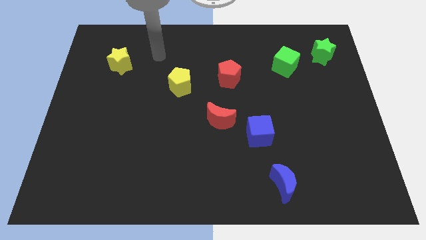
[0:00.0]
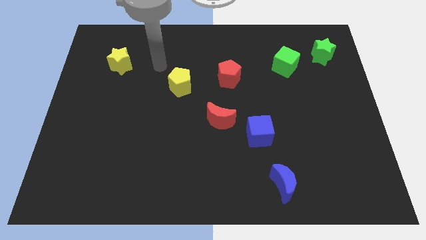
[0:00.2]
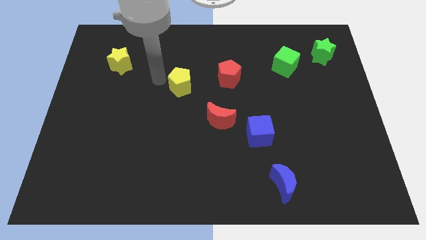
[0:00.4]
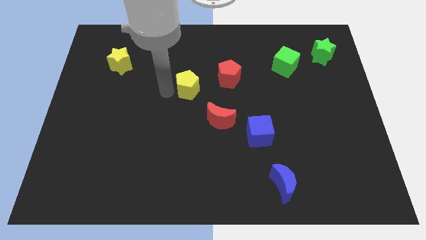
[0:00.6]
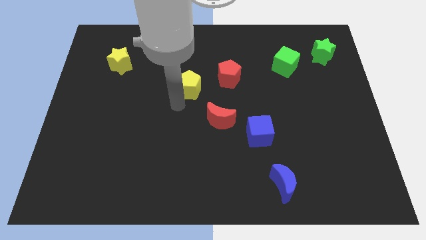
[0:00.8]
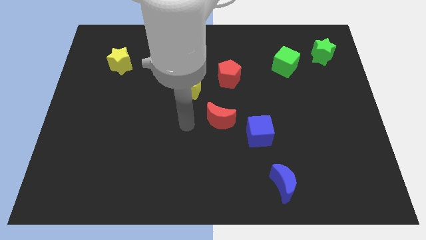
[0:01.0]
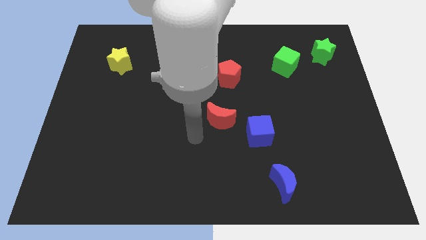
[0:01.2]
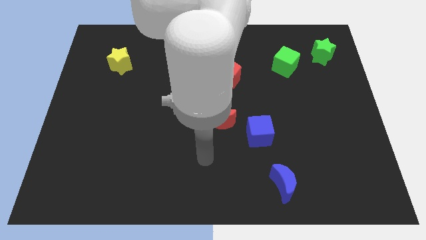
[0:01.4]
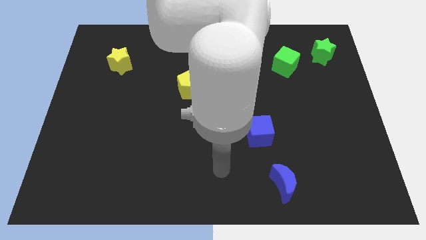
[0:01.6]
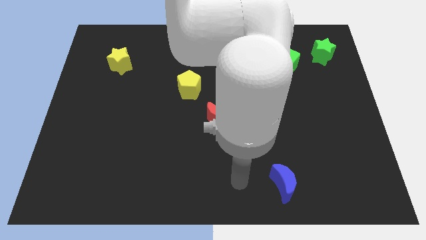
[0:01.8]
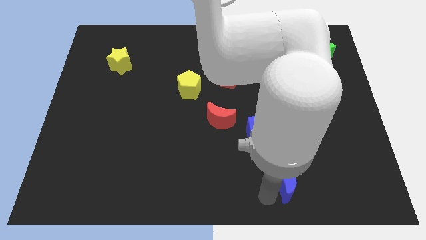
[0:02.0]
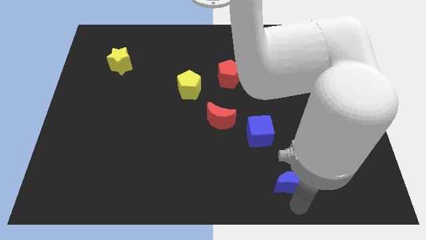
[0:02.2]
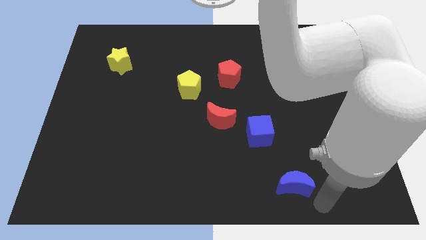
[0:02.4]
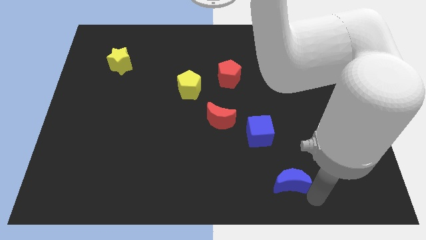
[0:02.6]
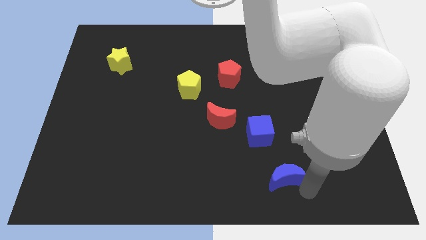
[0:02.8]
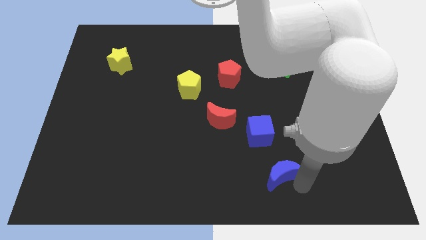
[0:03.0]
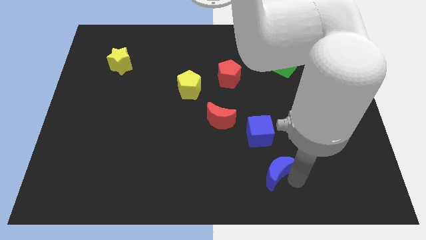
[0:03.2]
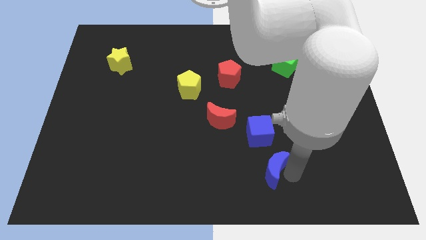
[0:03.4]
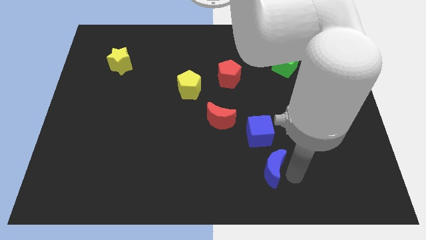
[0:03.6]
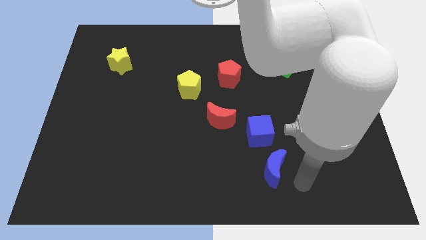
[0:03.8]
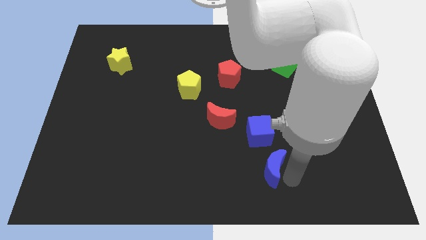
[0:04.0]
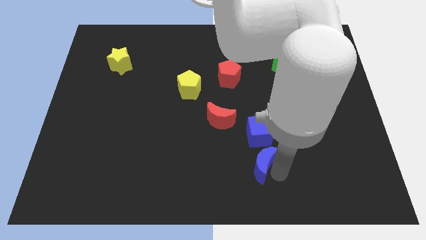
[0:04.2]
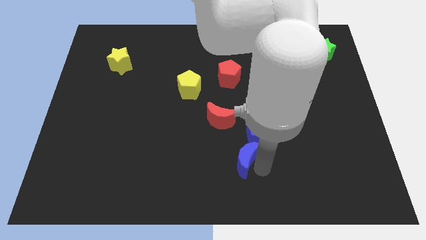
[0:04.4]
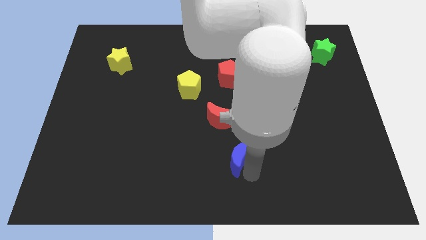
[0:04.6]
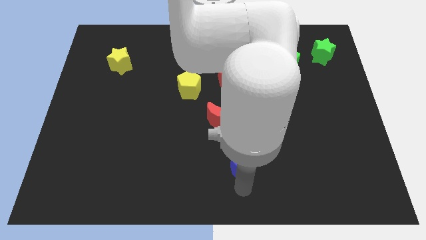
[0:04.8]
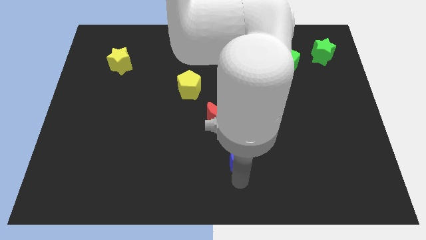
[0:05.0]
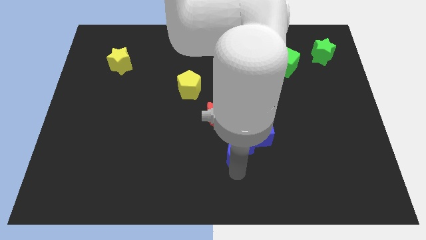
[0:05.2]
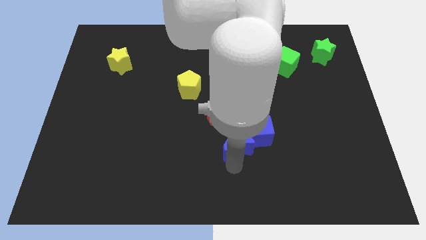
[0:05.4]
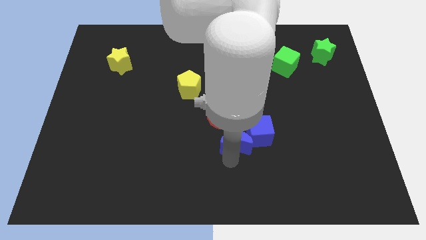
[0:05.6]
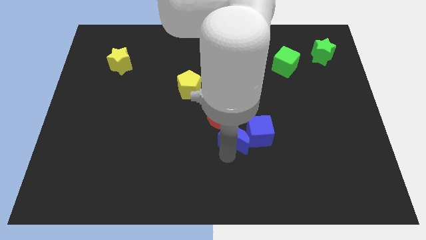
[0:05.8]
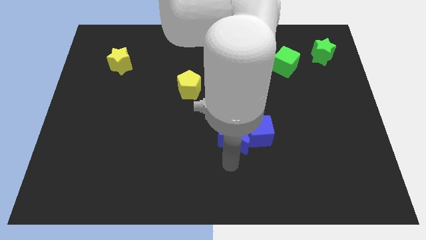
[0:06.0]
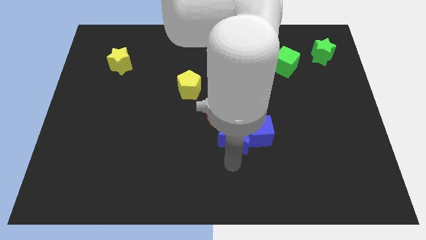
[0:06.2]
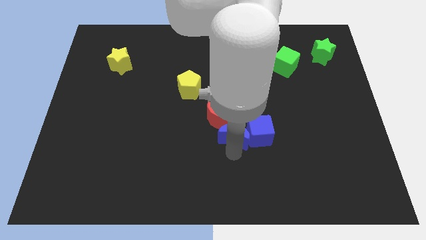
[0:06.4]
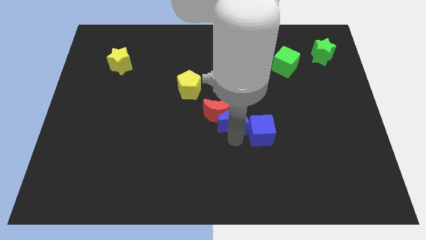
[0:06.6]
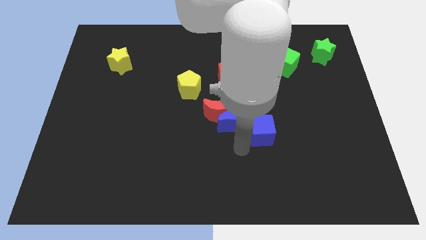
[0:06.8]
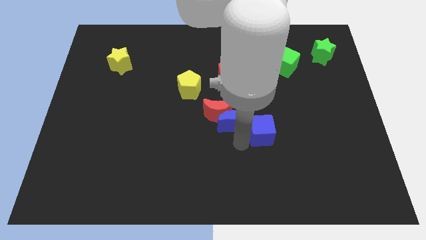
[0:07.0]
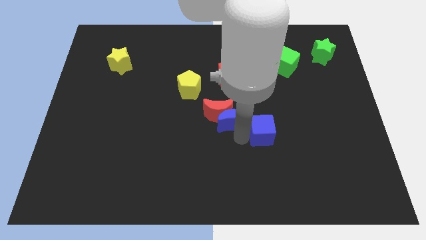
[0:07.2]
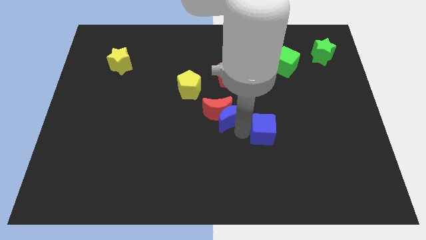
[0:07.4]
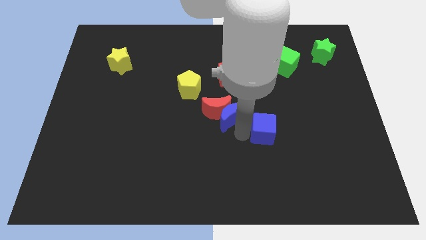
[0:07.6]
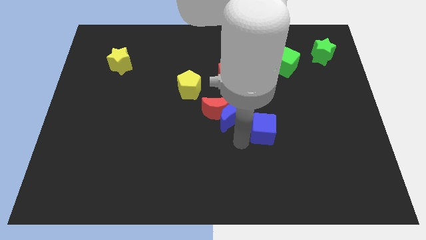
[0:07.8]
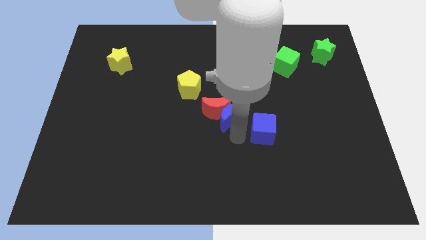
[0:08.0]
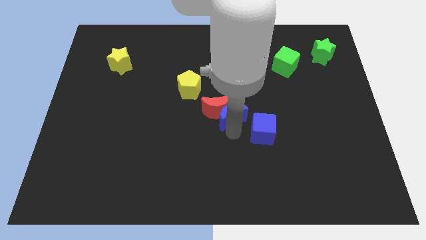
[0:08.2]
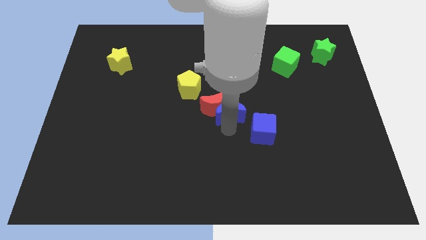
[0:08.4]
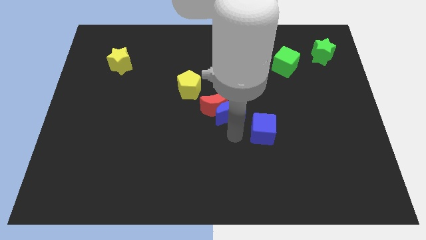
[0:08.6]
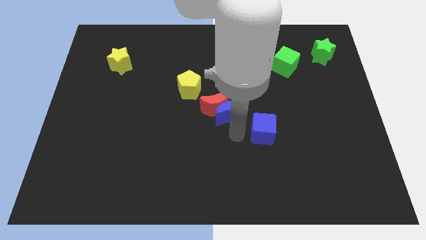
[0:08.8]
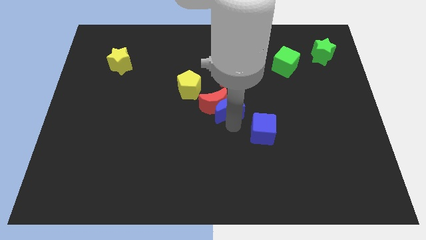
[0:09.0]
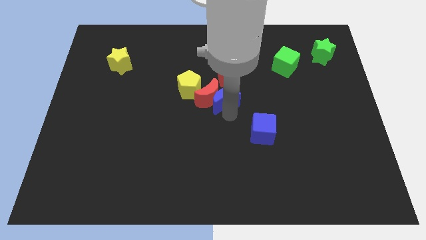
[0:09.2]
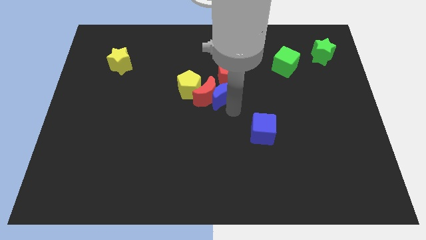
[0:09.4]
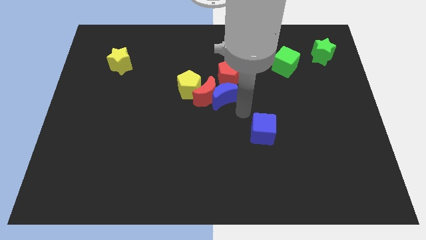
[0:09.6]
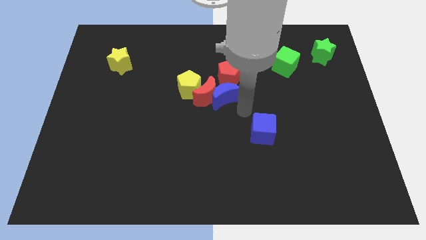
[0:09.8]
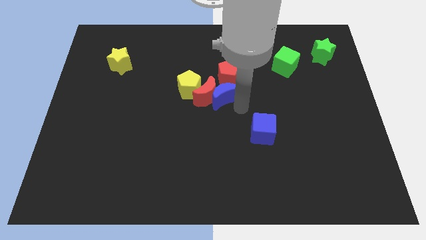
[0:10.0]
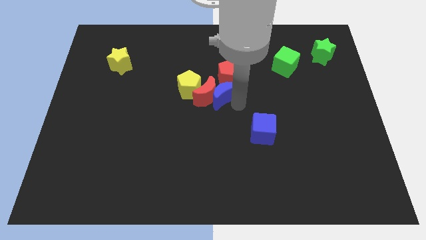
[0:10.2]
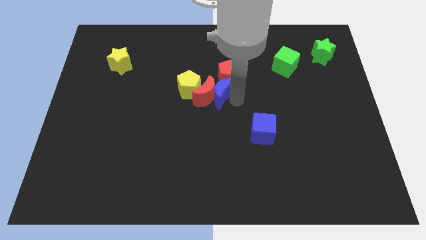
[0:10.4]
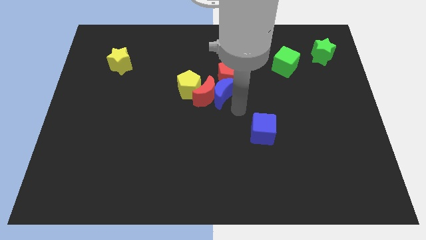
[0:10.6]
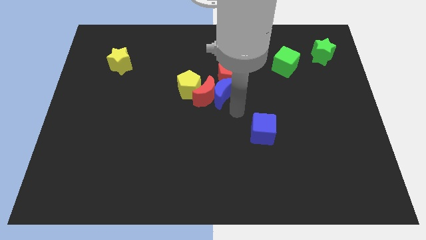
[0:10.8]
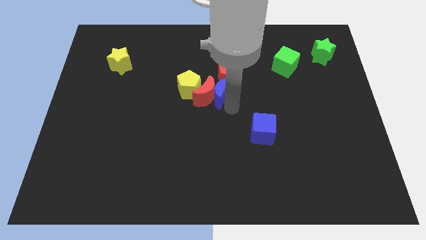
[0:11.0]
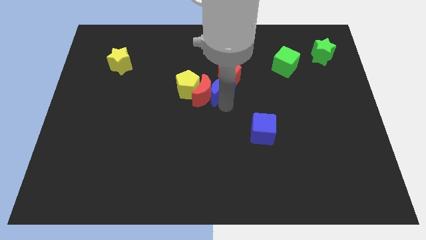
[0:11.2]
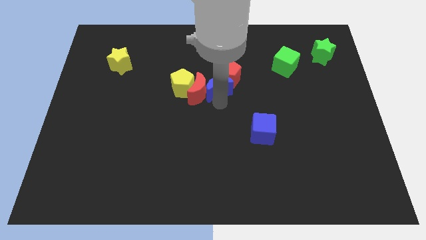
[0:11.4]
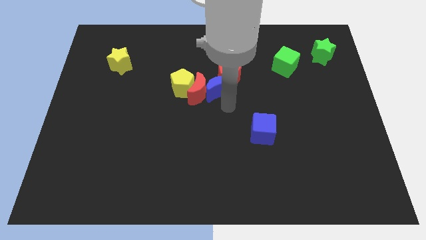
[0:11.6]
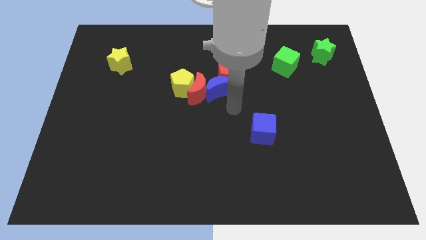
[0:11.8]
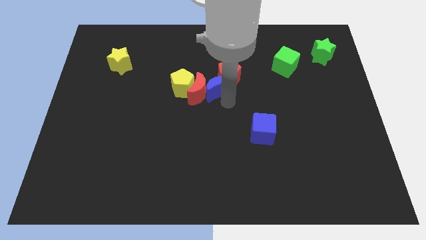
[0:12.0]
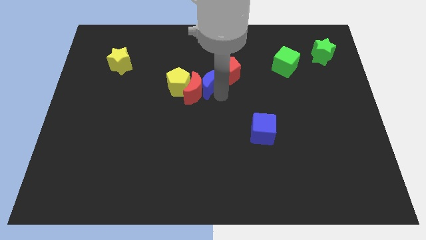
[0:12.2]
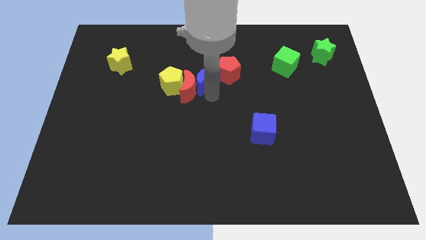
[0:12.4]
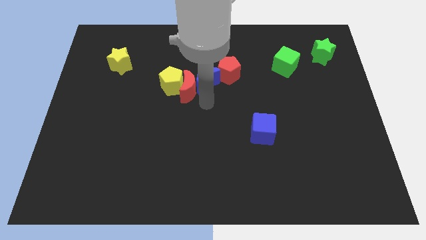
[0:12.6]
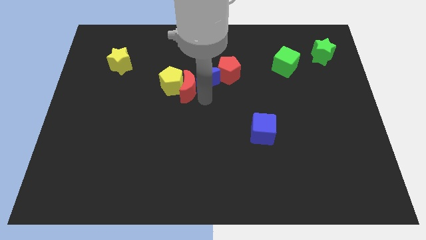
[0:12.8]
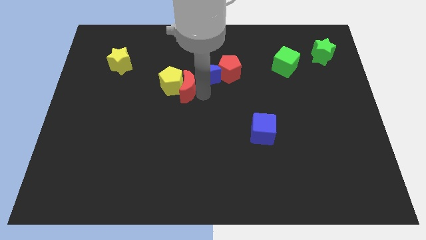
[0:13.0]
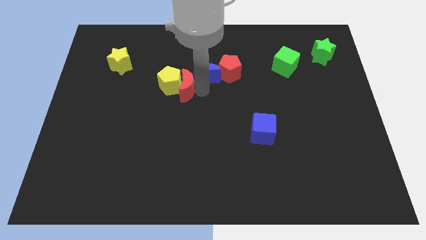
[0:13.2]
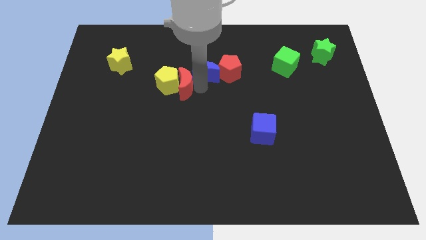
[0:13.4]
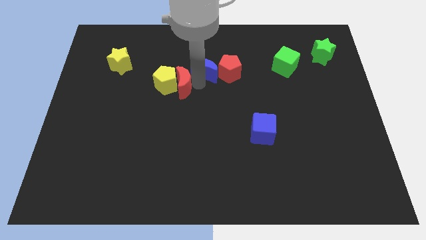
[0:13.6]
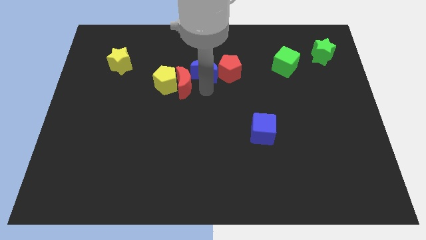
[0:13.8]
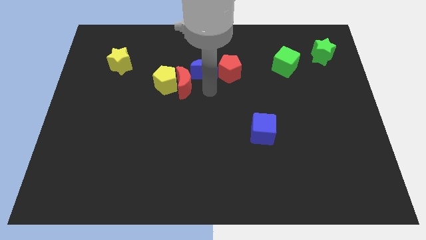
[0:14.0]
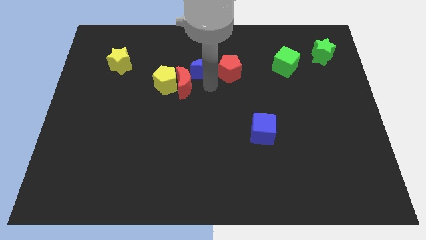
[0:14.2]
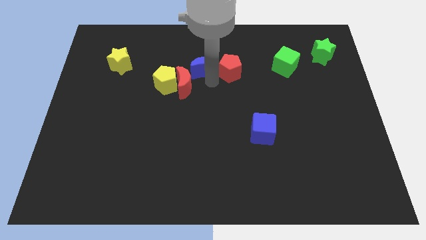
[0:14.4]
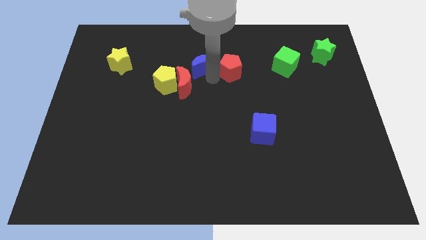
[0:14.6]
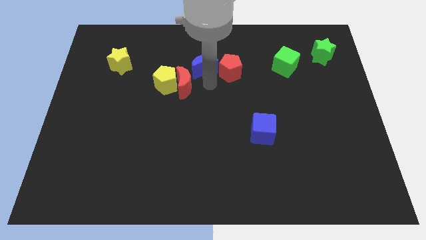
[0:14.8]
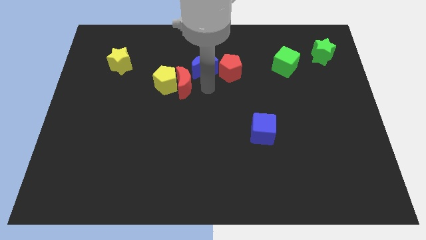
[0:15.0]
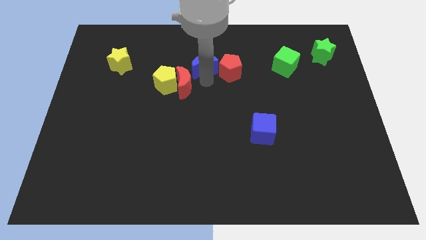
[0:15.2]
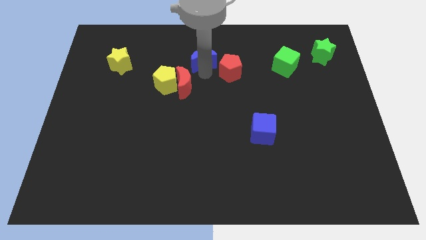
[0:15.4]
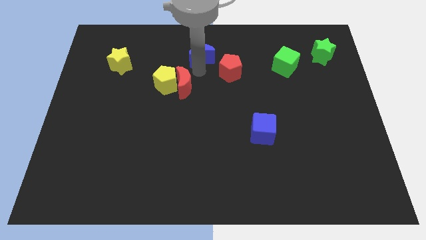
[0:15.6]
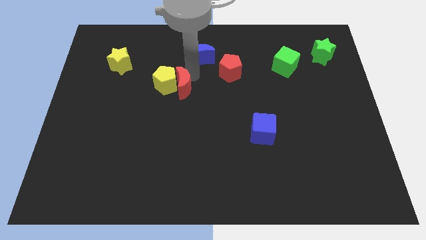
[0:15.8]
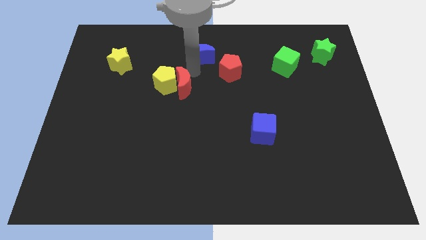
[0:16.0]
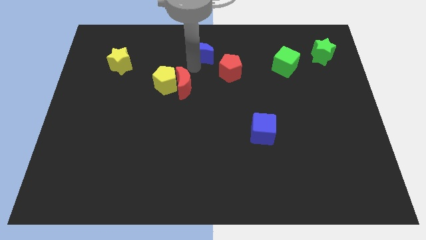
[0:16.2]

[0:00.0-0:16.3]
push the blue moon to the top
